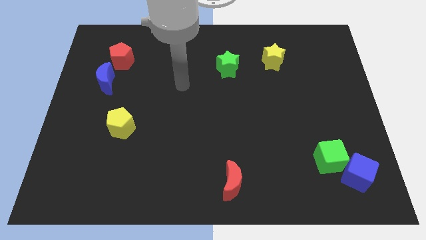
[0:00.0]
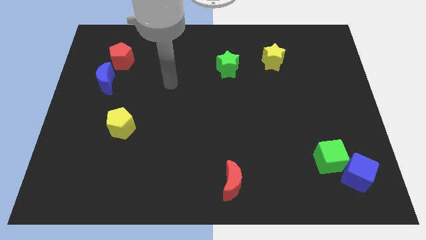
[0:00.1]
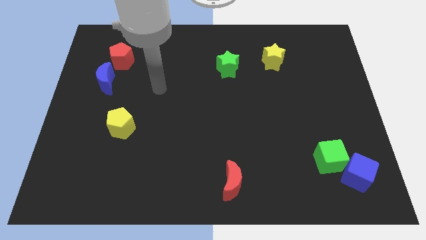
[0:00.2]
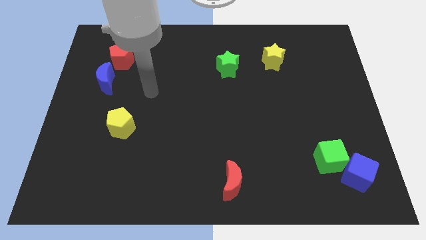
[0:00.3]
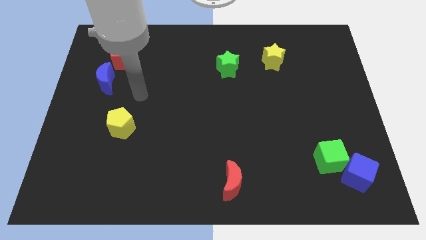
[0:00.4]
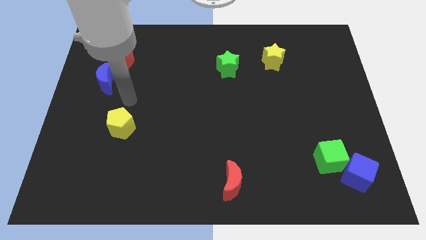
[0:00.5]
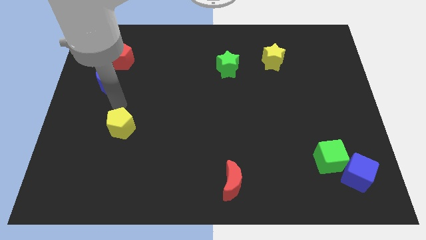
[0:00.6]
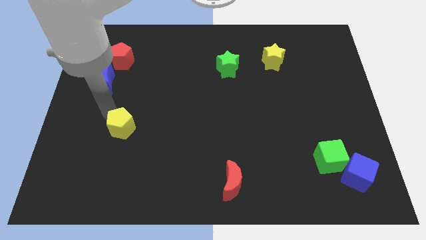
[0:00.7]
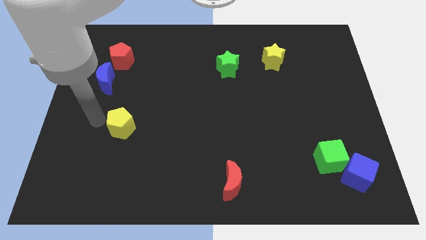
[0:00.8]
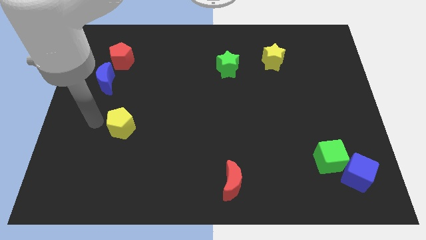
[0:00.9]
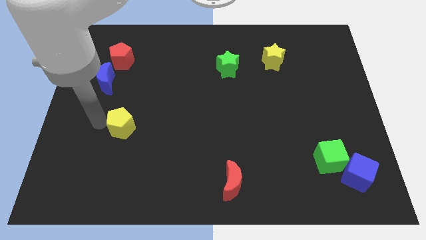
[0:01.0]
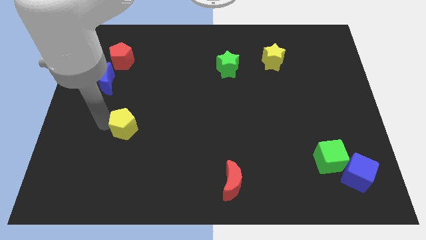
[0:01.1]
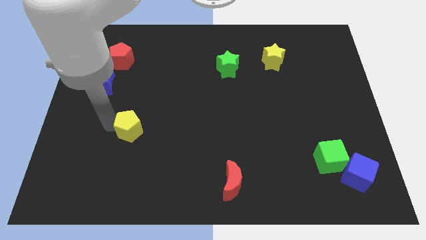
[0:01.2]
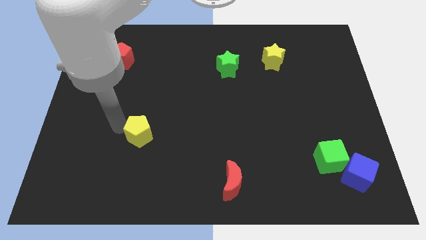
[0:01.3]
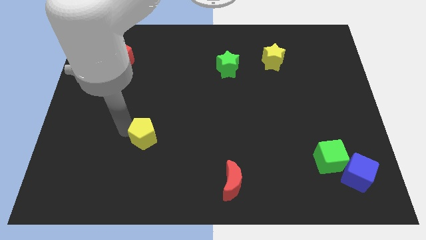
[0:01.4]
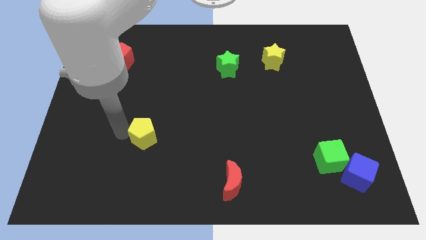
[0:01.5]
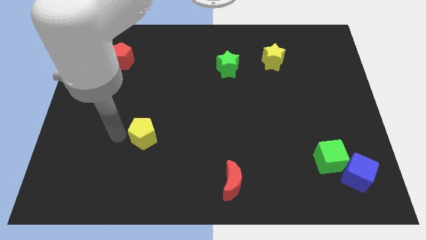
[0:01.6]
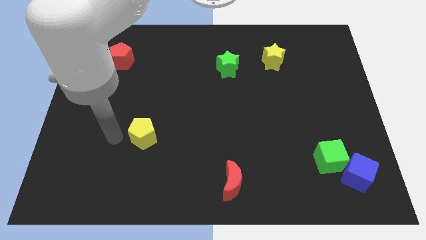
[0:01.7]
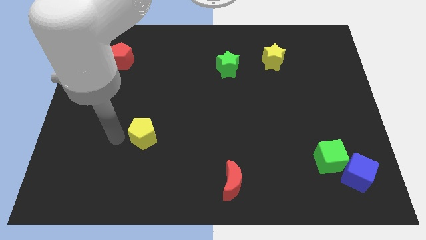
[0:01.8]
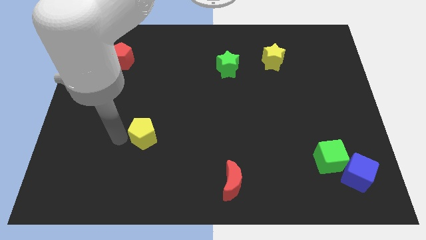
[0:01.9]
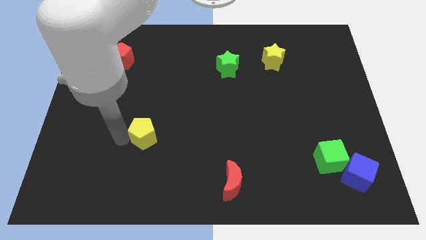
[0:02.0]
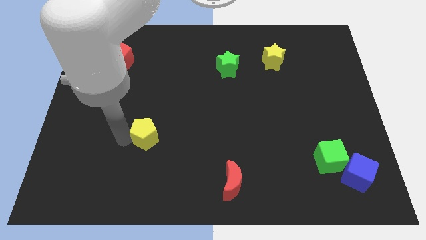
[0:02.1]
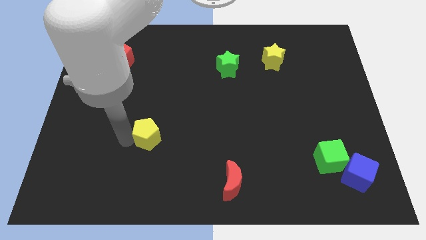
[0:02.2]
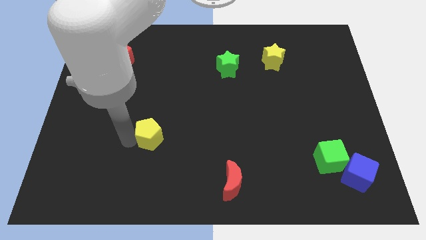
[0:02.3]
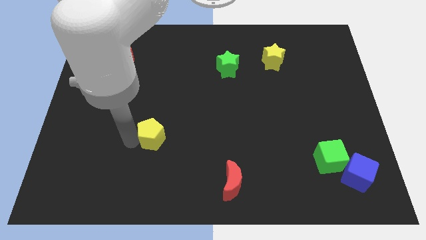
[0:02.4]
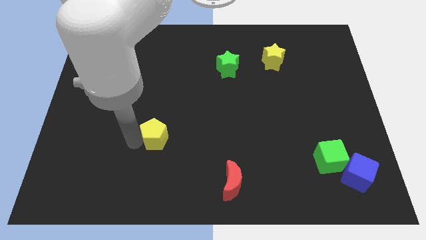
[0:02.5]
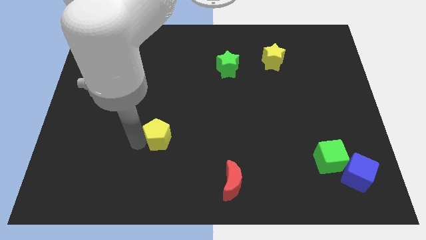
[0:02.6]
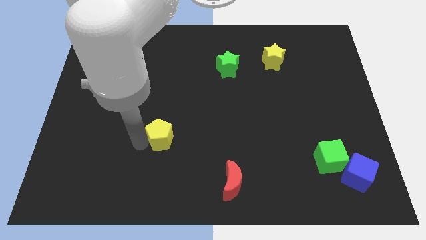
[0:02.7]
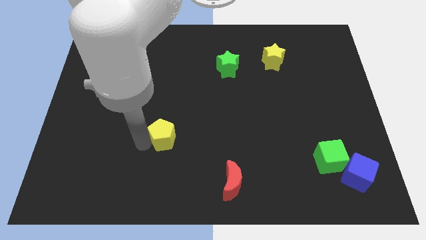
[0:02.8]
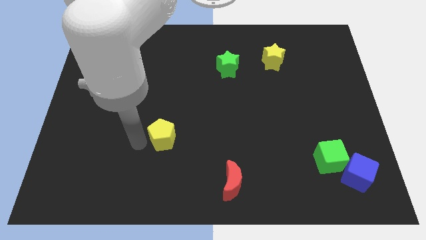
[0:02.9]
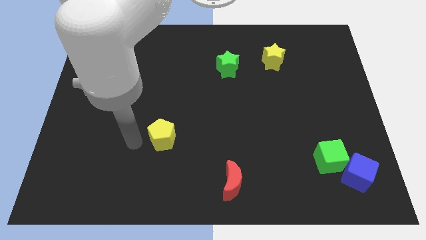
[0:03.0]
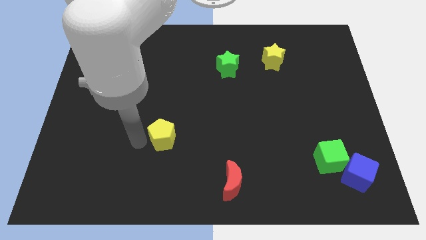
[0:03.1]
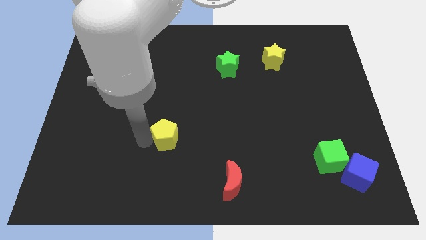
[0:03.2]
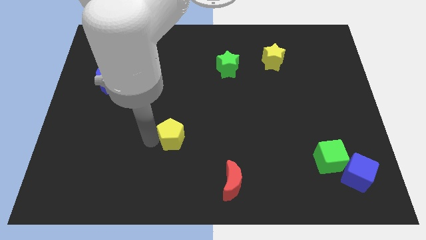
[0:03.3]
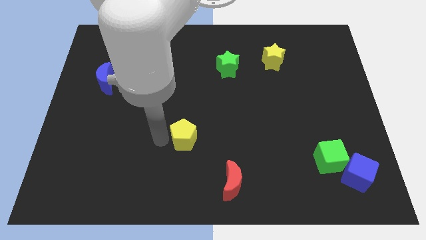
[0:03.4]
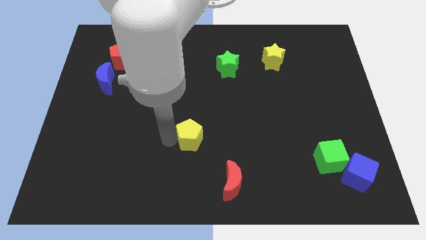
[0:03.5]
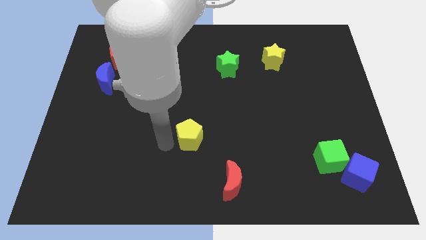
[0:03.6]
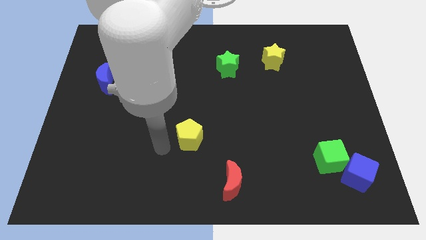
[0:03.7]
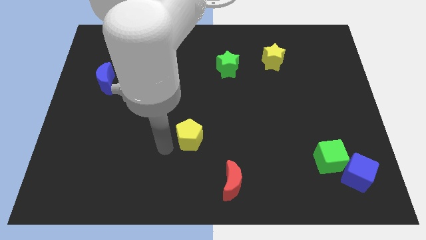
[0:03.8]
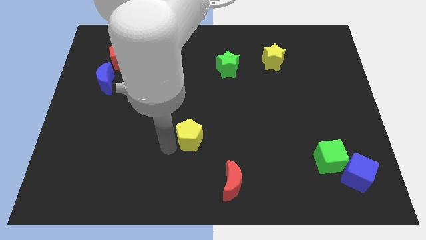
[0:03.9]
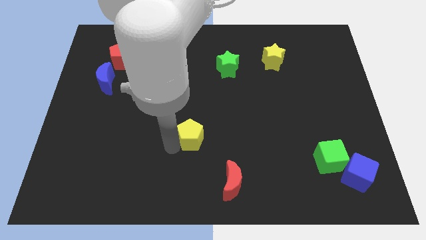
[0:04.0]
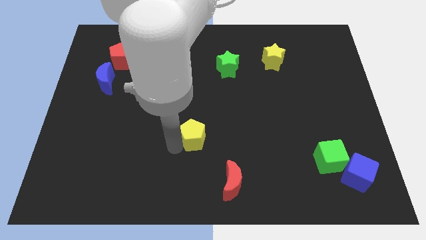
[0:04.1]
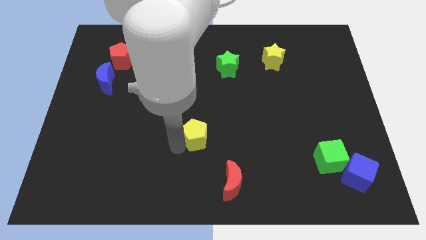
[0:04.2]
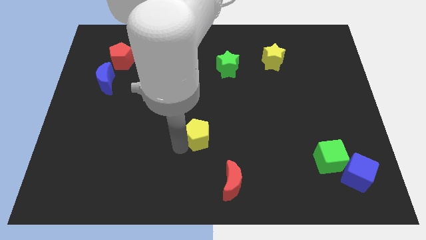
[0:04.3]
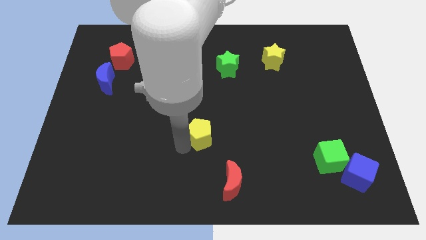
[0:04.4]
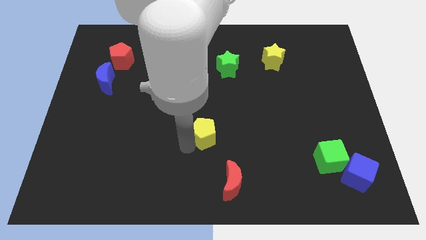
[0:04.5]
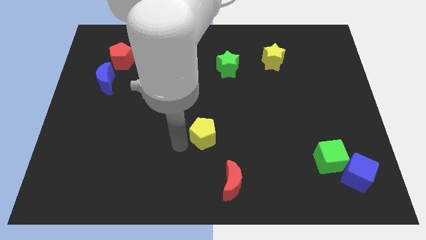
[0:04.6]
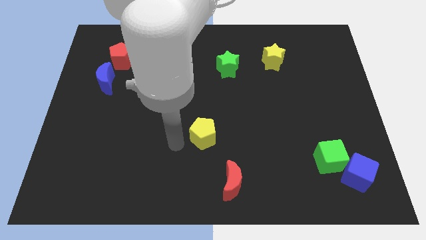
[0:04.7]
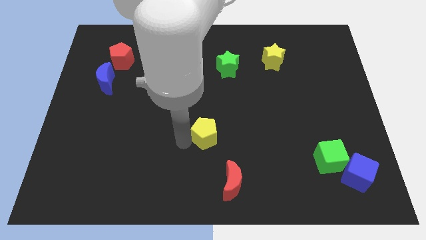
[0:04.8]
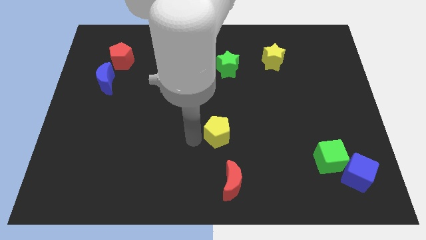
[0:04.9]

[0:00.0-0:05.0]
push the yellow pentagon to the right

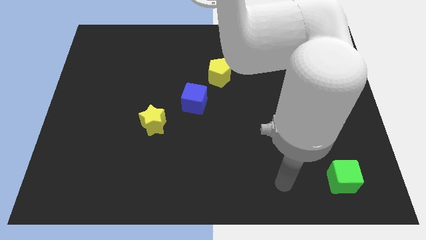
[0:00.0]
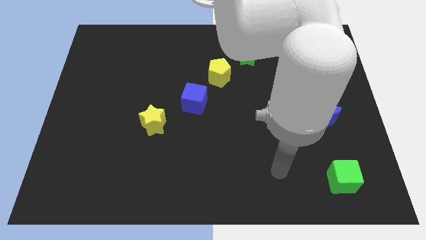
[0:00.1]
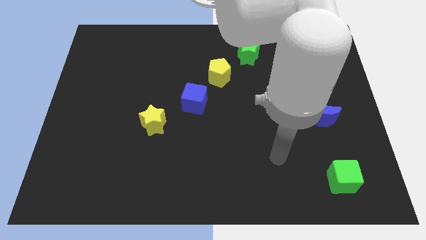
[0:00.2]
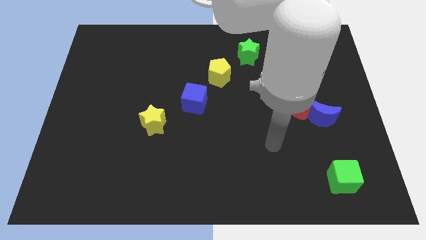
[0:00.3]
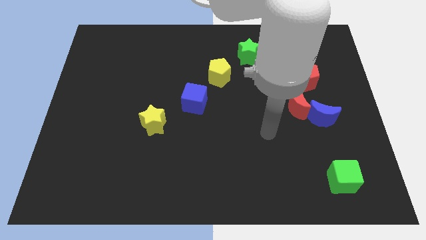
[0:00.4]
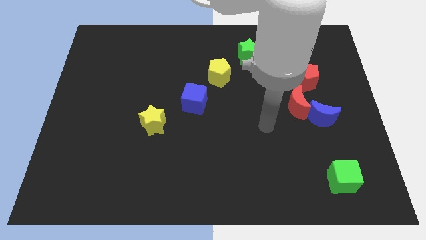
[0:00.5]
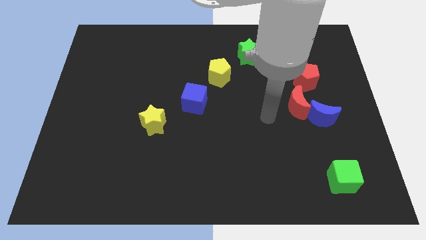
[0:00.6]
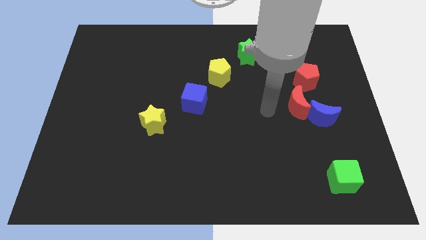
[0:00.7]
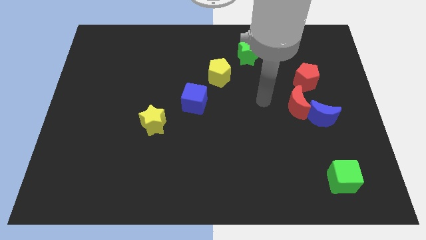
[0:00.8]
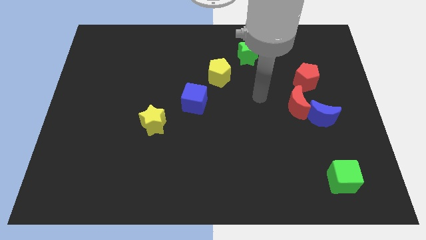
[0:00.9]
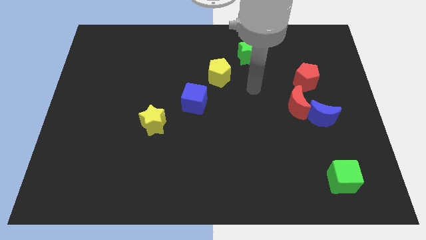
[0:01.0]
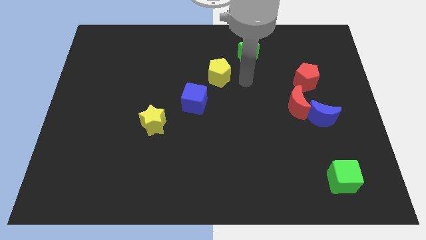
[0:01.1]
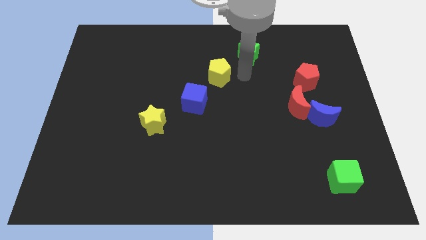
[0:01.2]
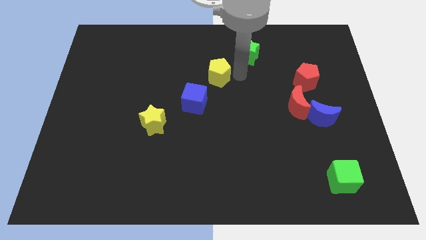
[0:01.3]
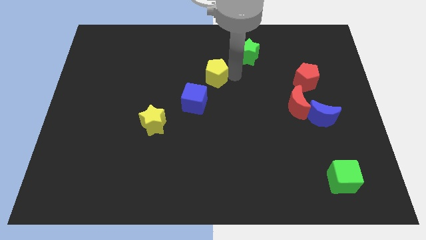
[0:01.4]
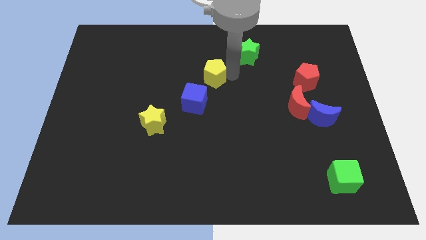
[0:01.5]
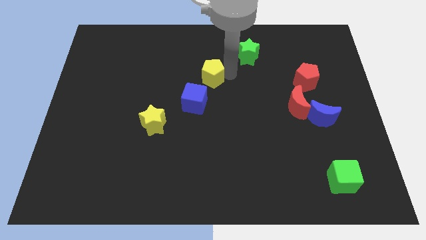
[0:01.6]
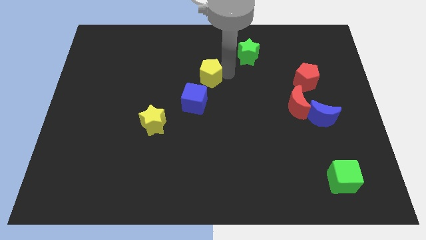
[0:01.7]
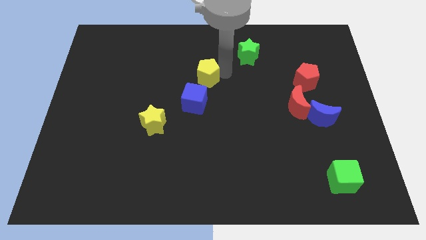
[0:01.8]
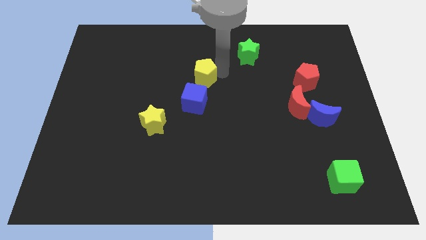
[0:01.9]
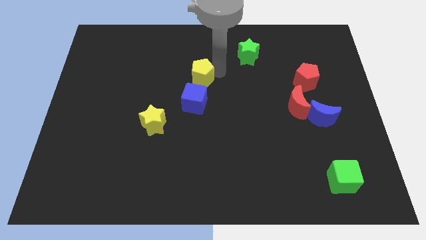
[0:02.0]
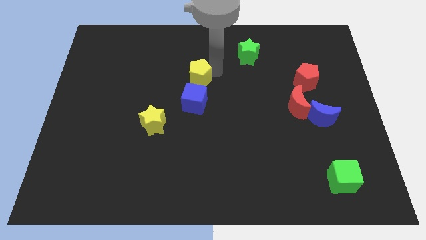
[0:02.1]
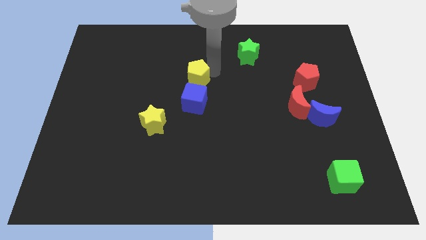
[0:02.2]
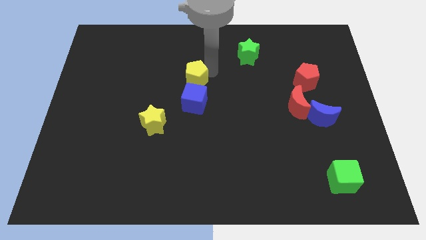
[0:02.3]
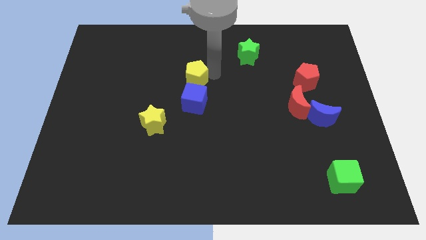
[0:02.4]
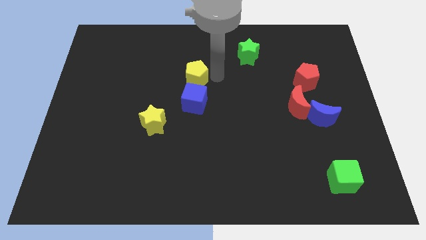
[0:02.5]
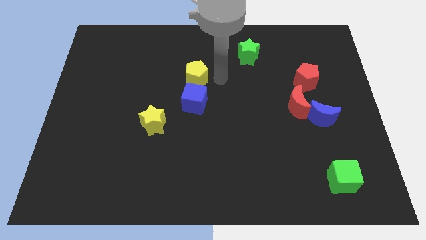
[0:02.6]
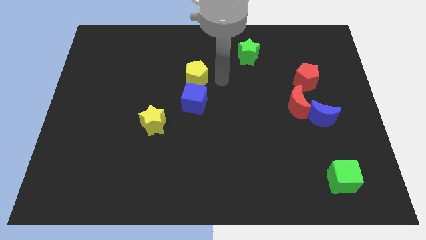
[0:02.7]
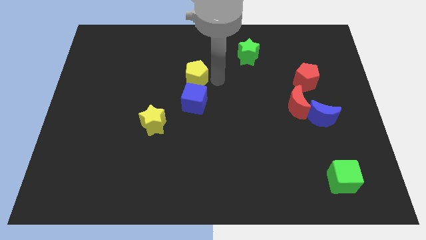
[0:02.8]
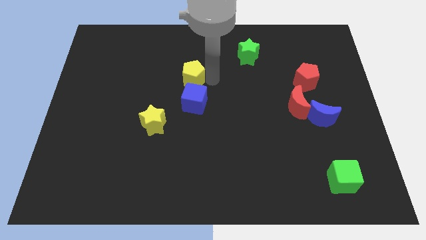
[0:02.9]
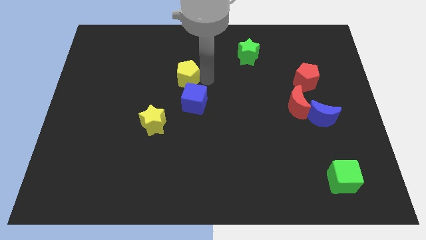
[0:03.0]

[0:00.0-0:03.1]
move the yellow pentagon to the left a bit
